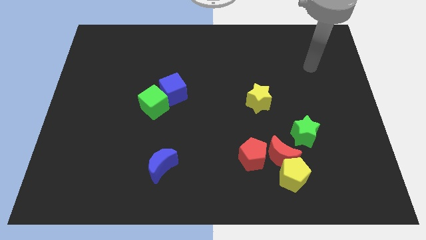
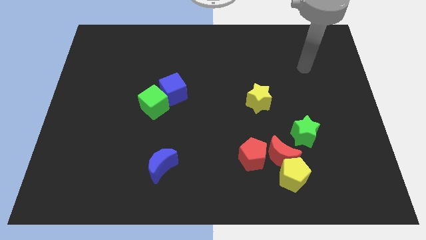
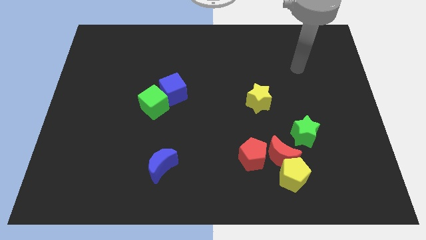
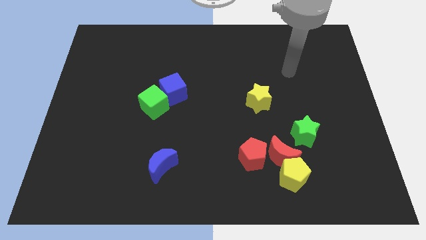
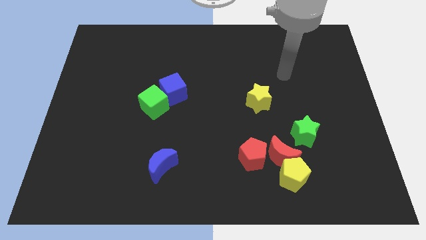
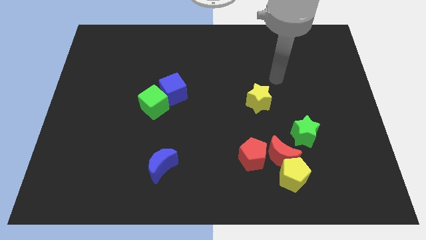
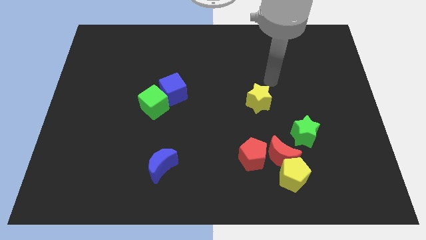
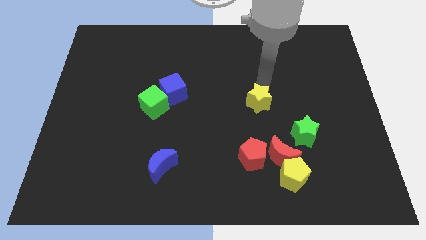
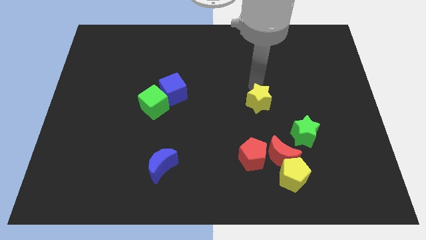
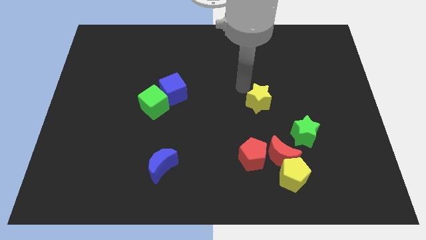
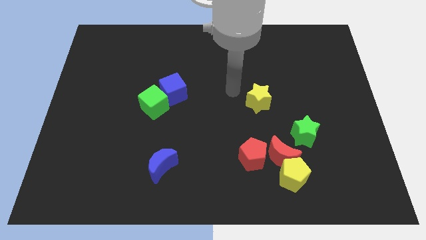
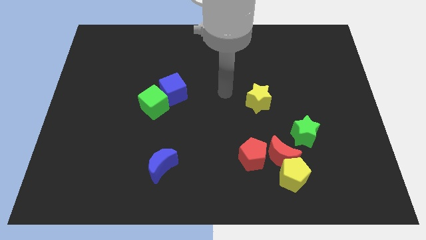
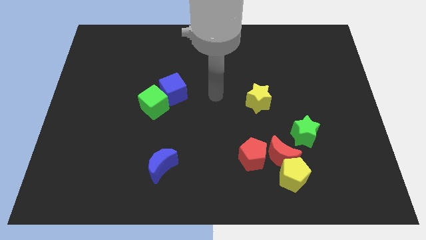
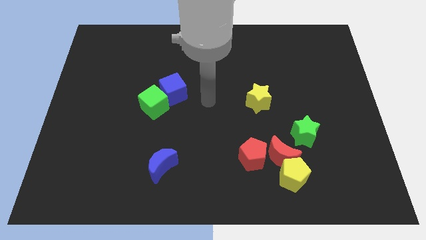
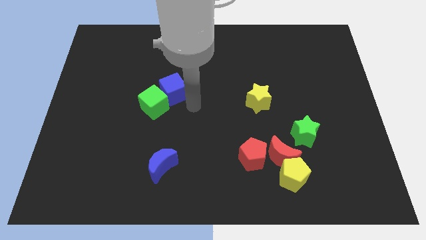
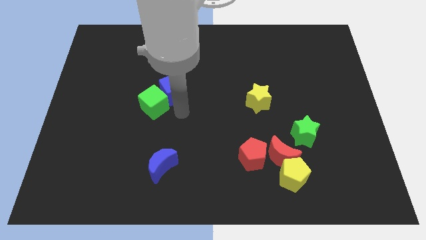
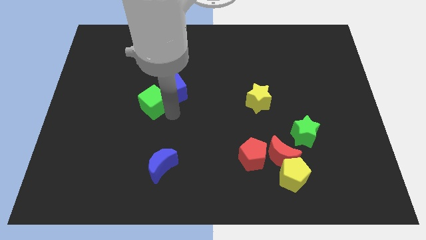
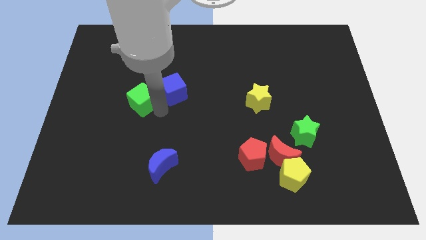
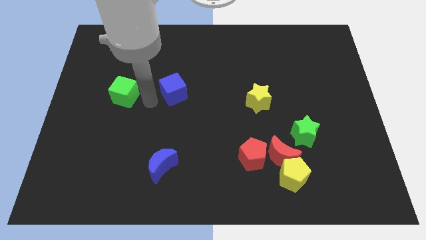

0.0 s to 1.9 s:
separate the blue cube from the green cube

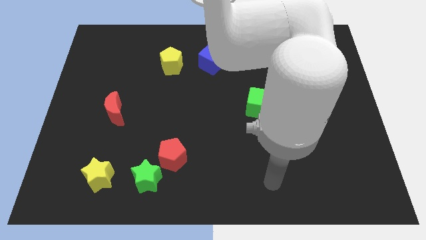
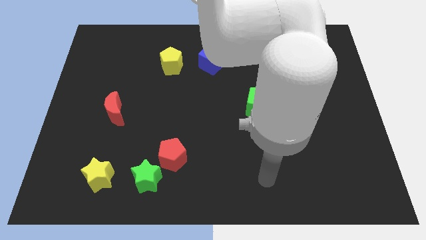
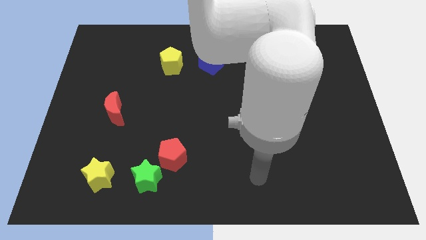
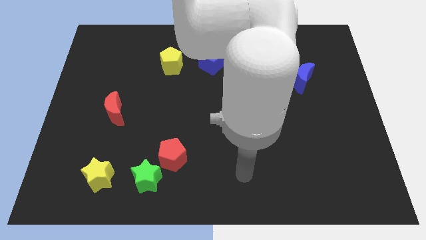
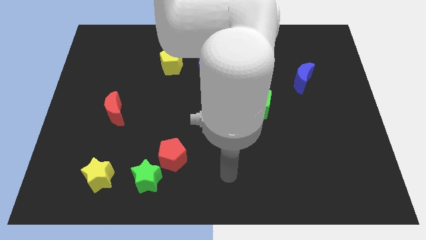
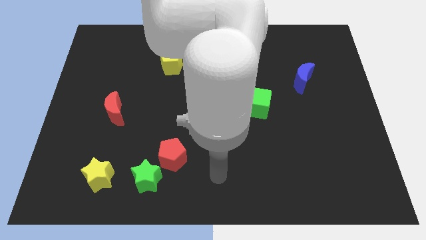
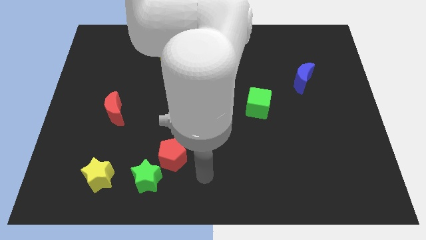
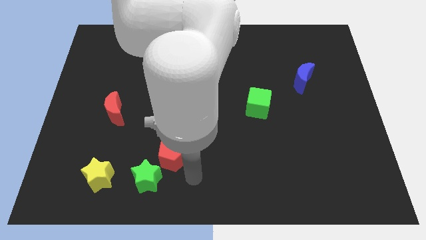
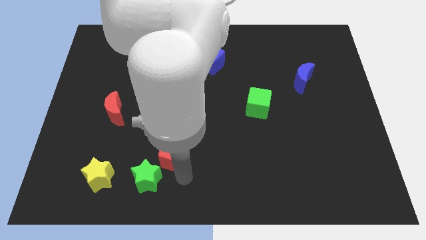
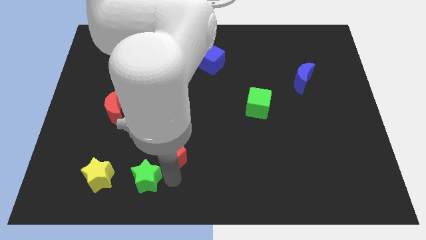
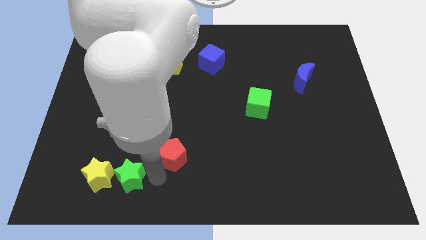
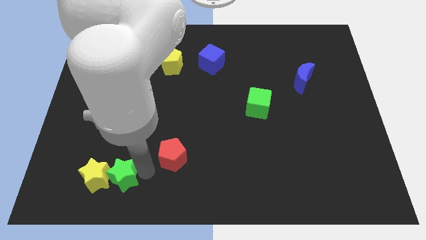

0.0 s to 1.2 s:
pull the red pentagon apart from the green star

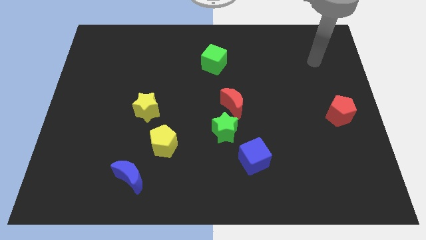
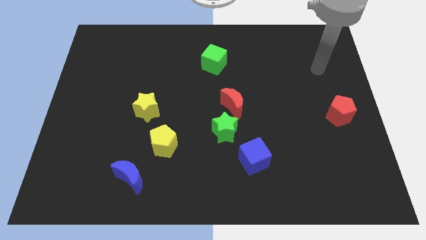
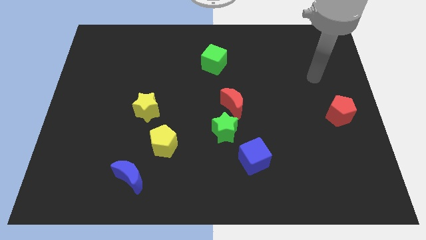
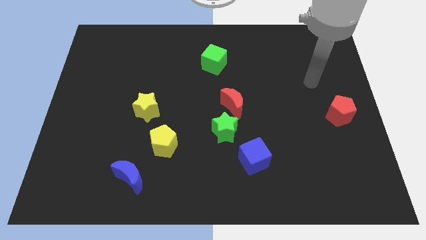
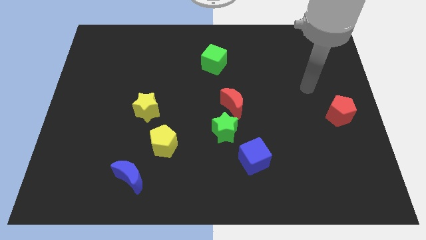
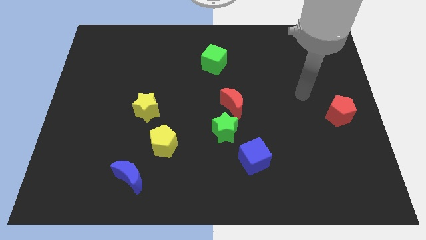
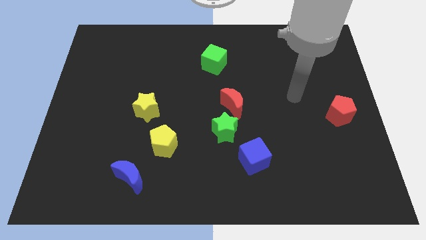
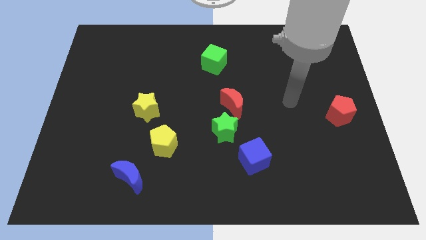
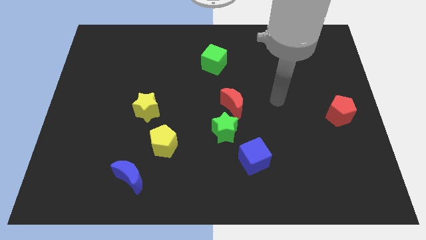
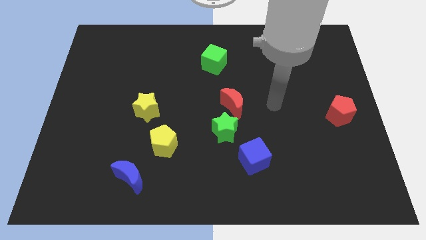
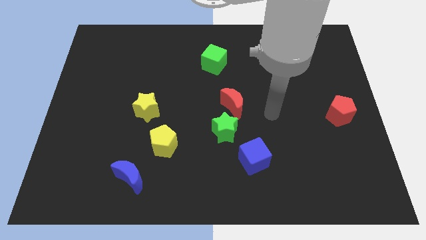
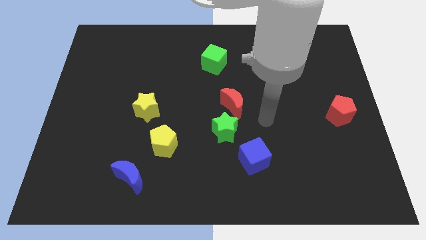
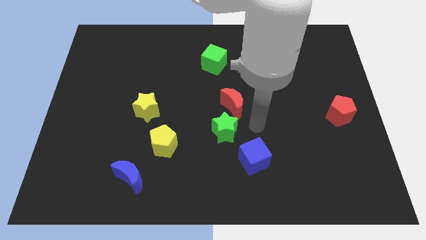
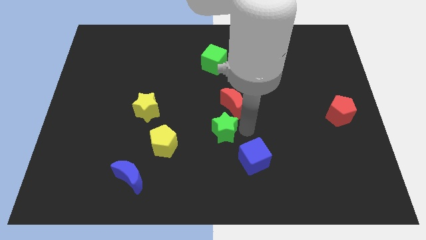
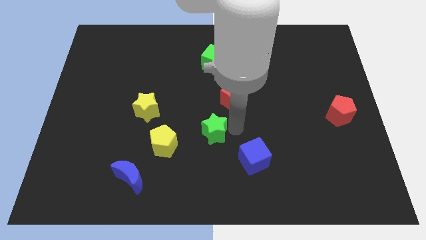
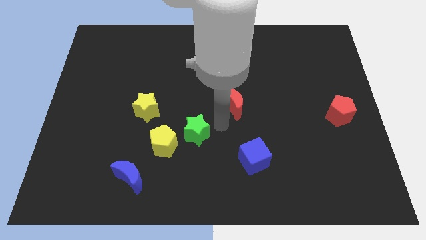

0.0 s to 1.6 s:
move the red moon away from the green star

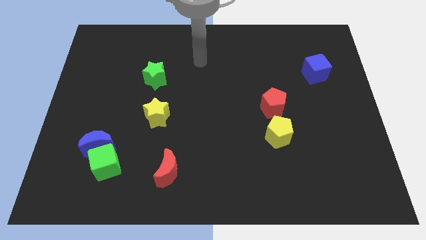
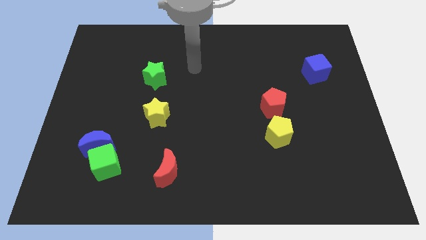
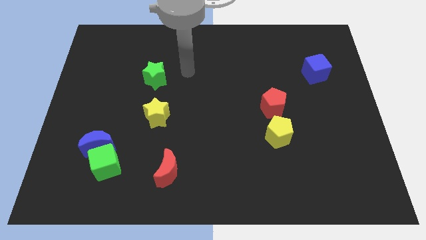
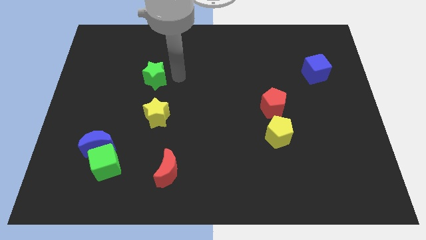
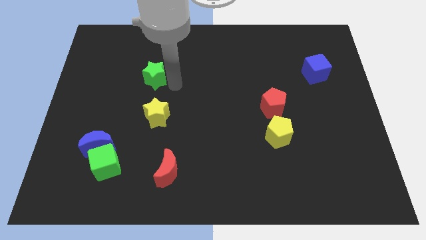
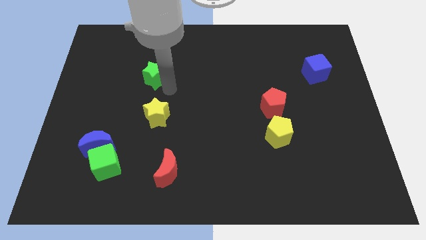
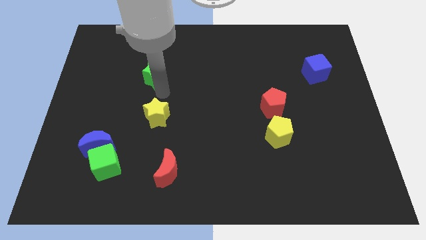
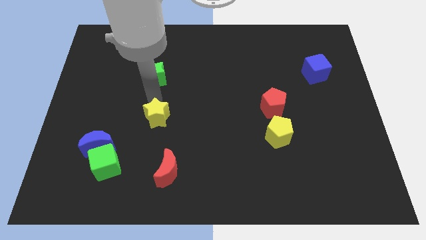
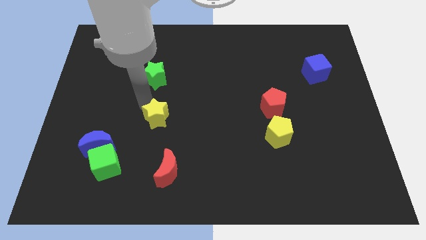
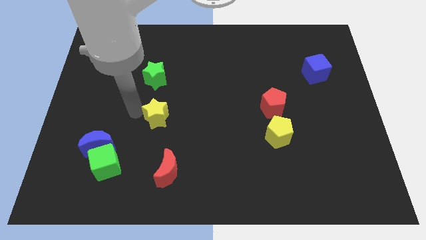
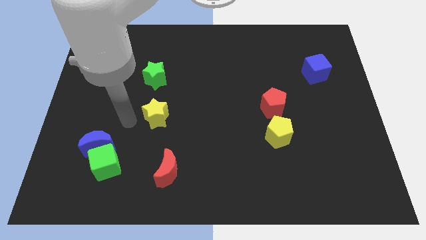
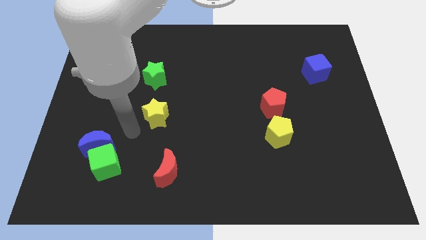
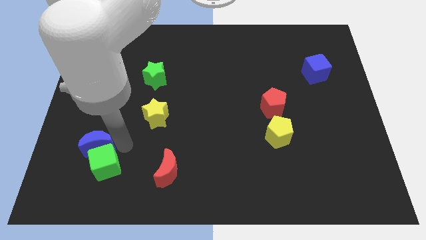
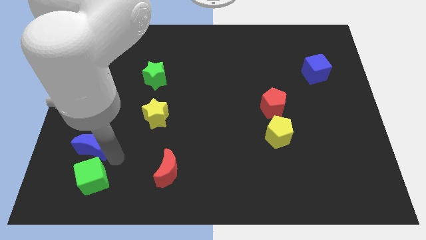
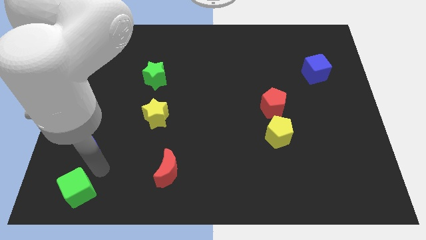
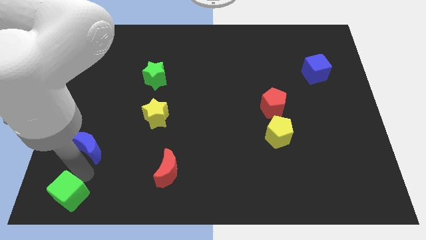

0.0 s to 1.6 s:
move the blue moon away from the green cube

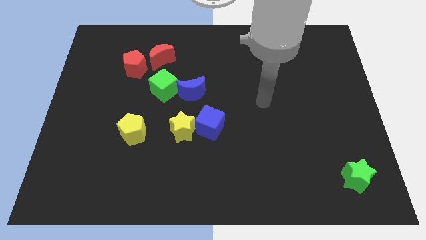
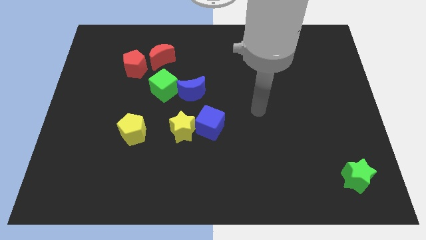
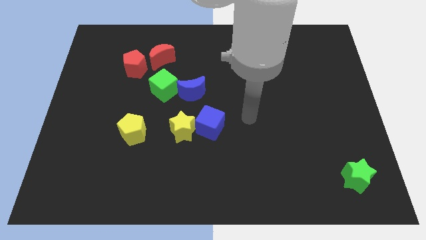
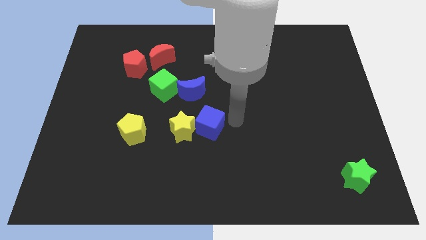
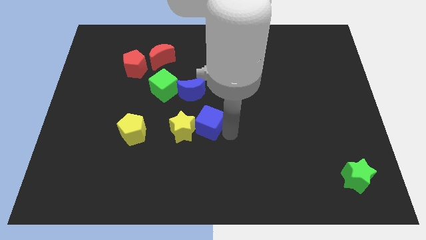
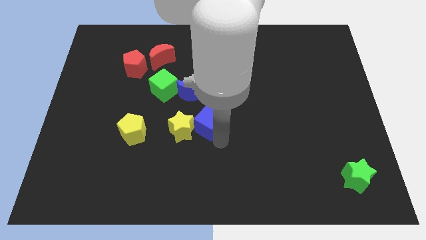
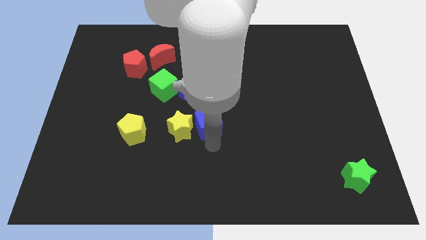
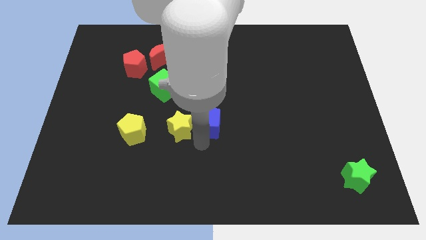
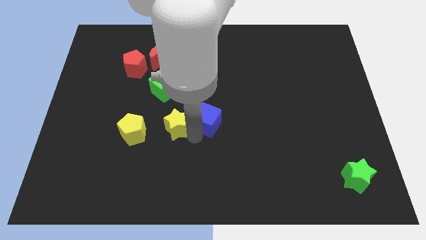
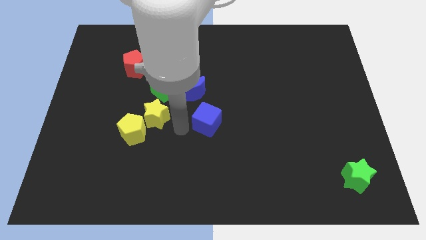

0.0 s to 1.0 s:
move the blue cube away from the yellow star

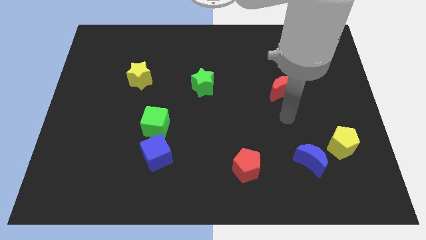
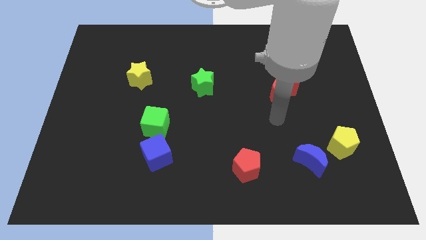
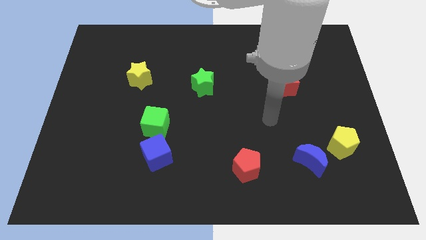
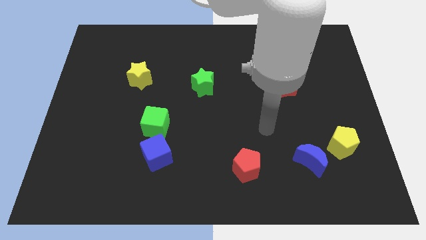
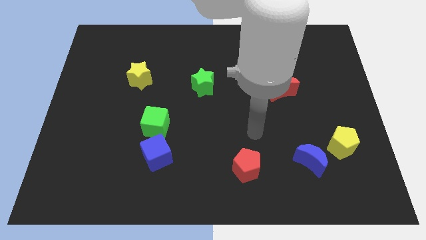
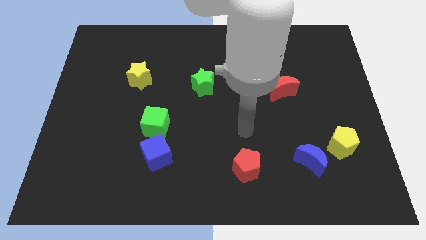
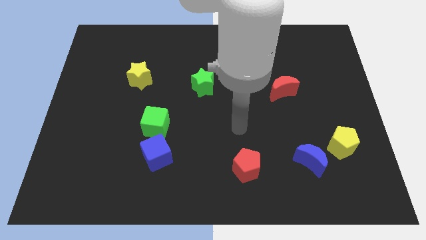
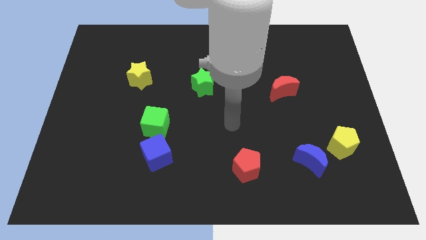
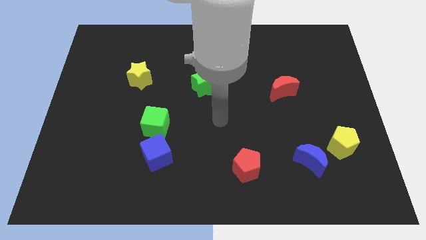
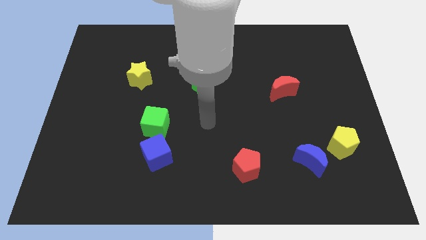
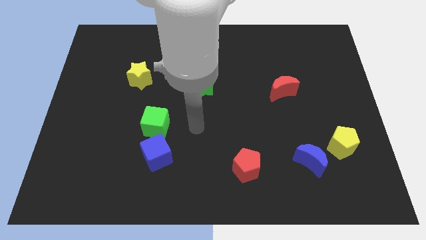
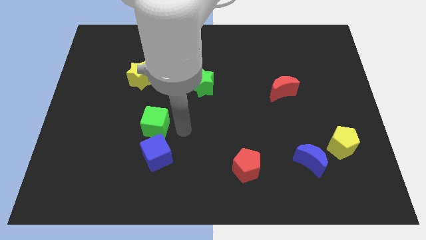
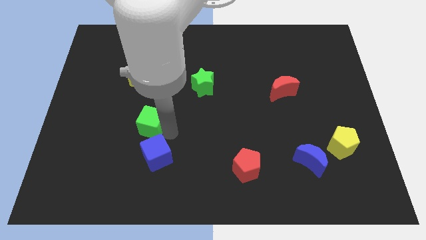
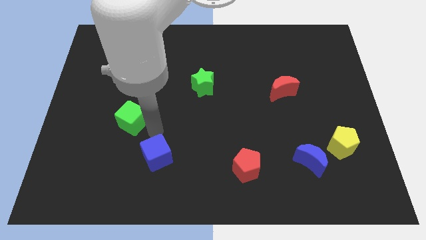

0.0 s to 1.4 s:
move the blue cube away from the green cube

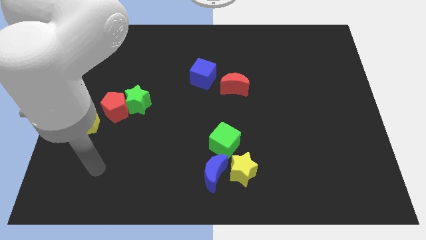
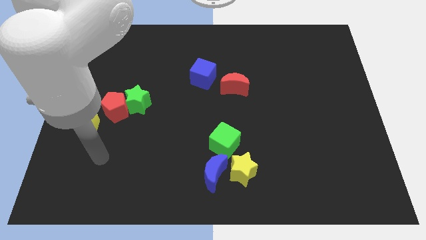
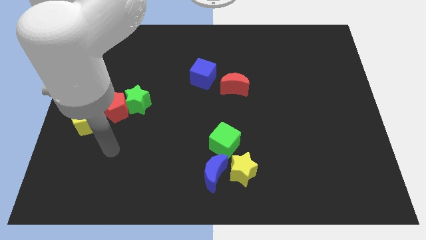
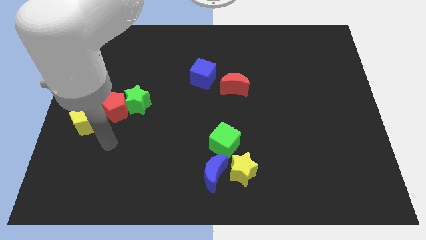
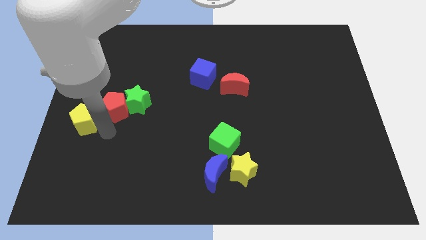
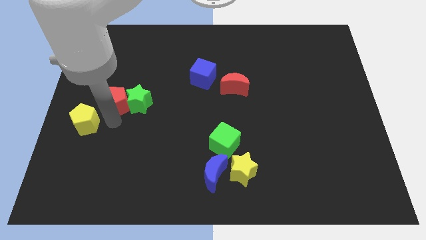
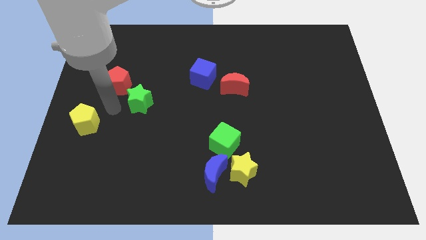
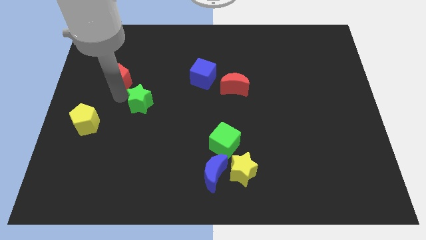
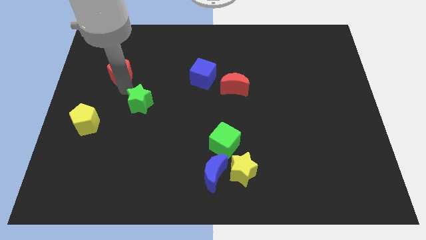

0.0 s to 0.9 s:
pull the green star apart from the red pentagon
